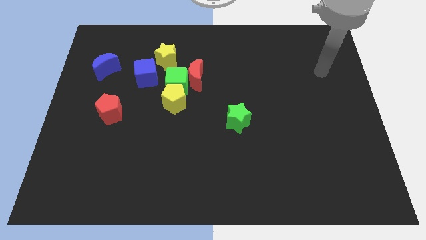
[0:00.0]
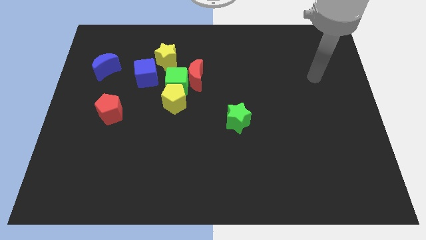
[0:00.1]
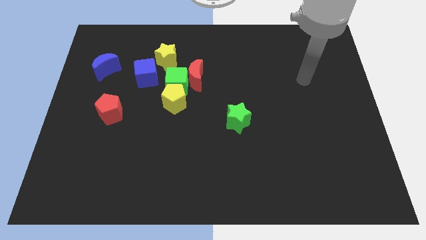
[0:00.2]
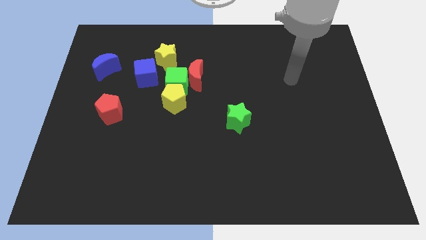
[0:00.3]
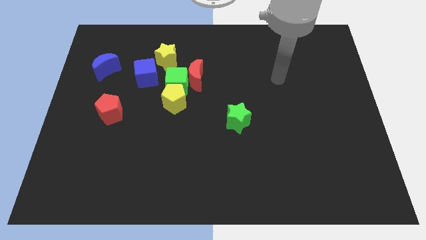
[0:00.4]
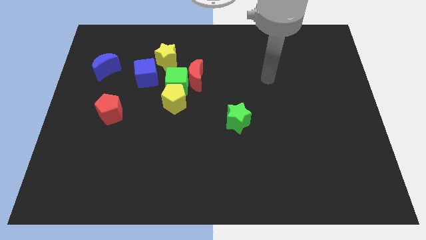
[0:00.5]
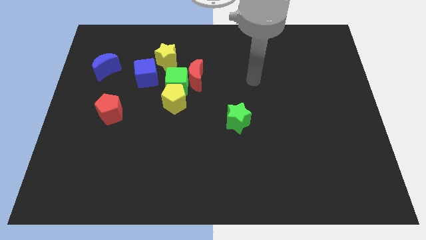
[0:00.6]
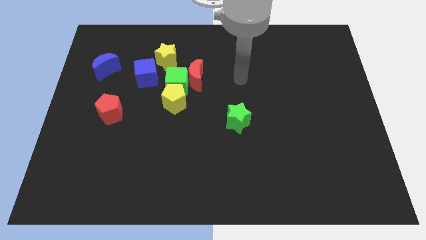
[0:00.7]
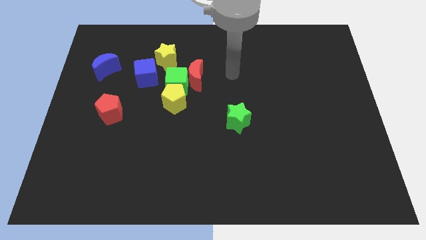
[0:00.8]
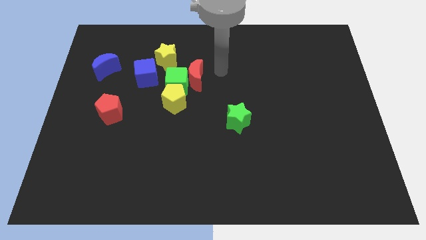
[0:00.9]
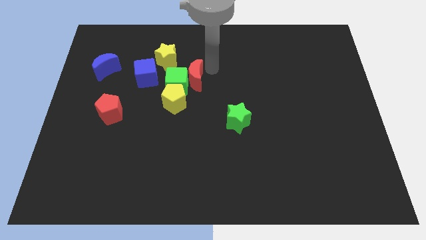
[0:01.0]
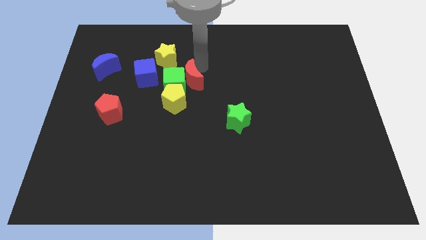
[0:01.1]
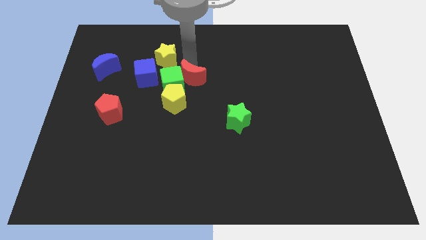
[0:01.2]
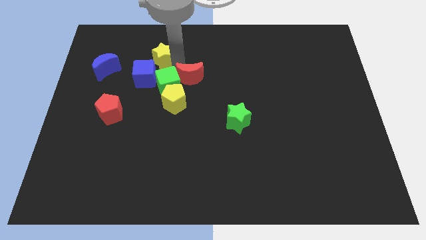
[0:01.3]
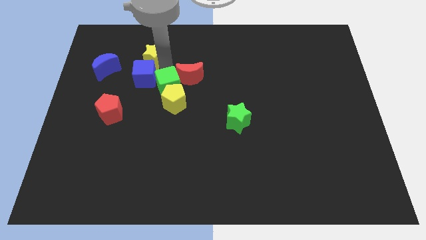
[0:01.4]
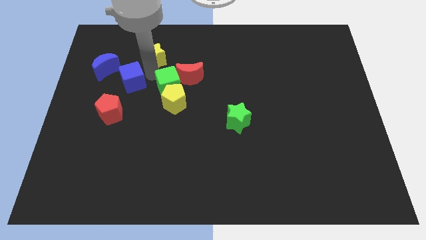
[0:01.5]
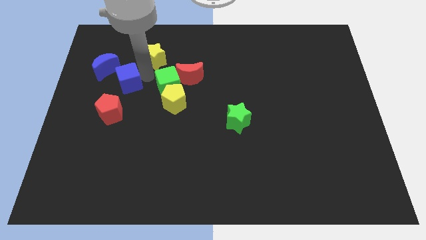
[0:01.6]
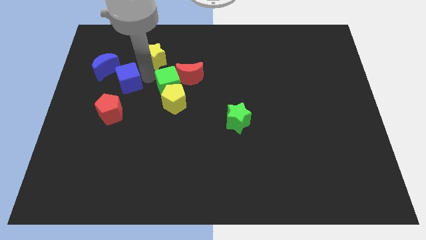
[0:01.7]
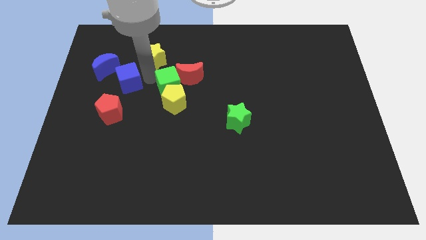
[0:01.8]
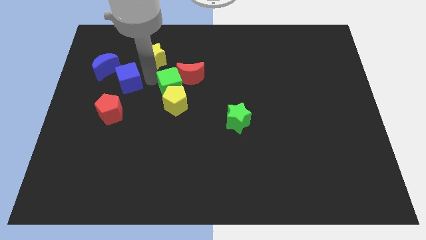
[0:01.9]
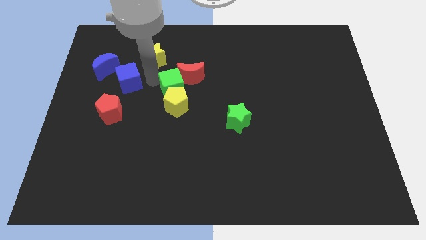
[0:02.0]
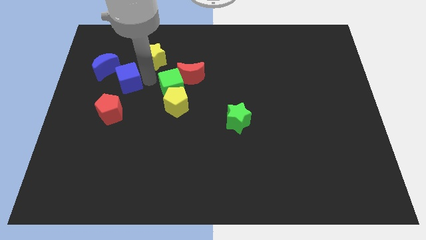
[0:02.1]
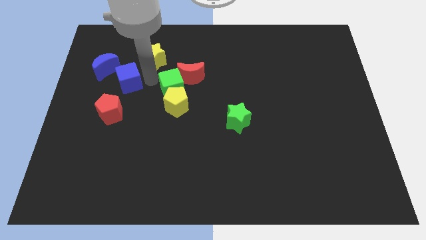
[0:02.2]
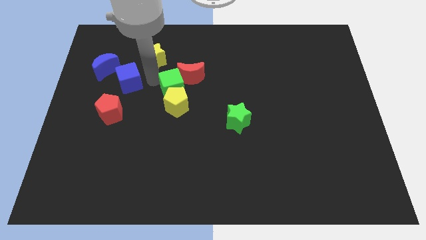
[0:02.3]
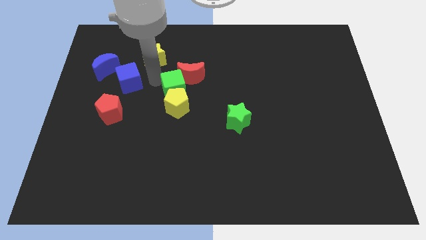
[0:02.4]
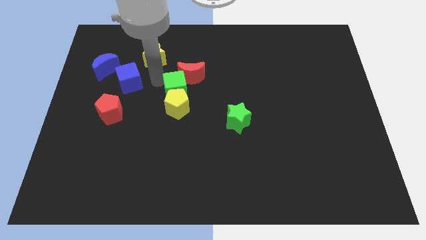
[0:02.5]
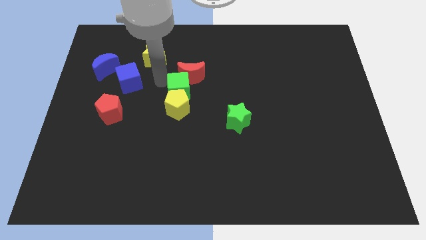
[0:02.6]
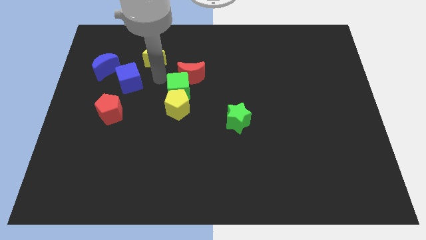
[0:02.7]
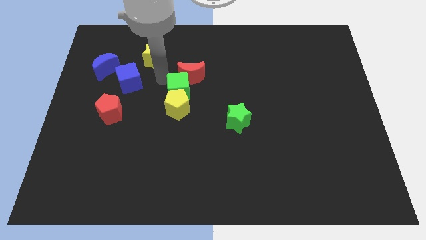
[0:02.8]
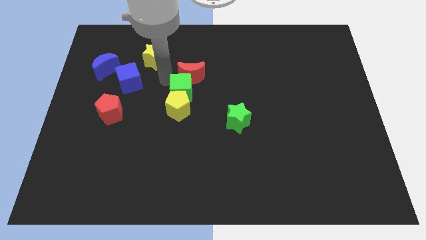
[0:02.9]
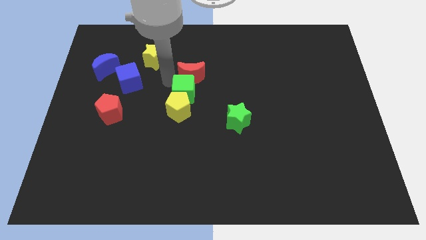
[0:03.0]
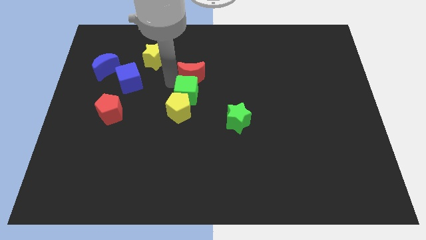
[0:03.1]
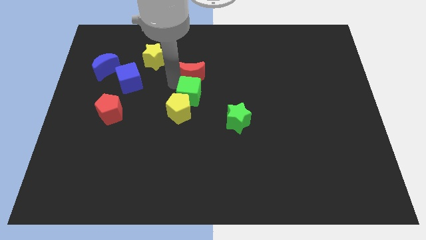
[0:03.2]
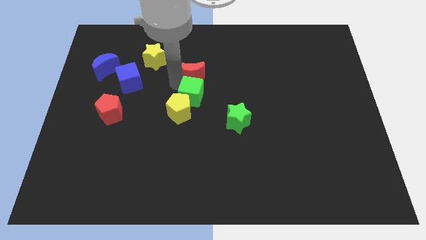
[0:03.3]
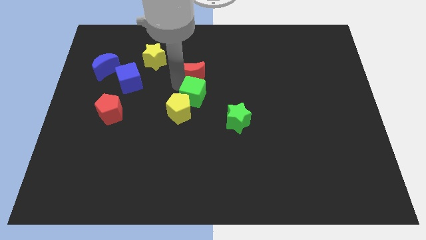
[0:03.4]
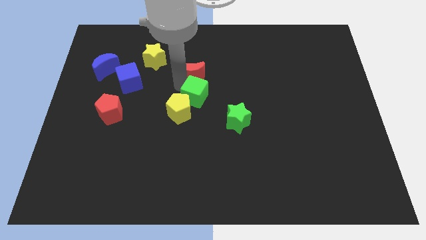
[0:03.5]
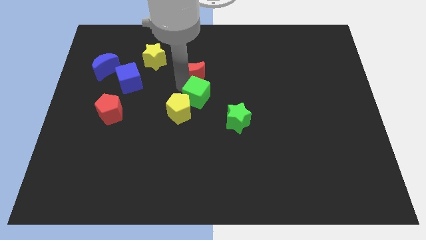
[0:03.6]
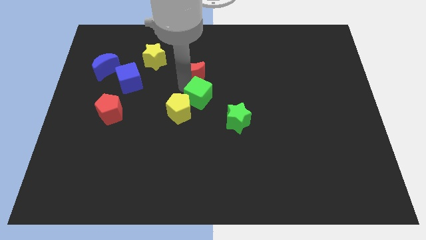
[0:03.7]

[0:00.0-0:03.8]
separate the green cube from the clump

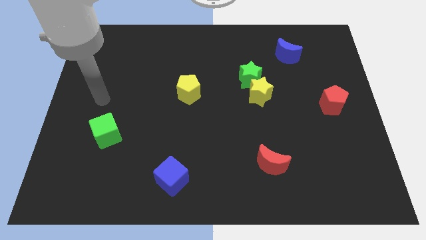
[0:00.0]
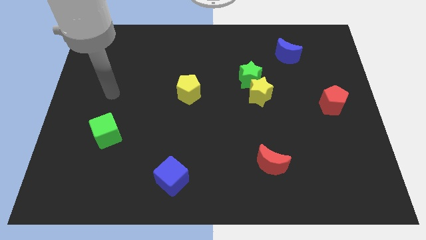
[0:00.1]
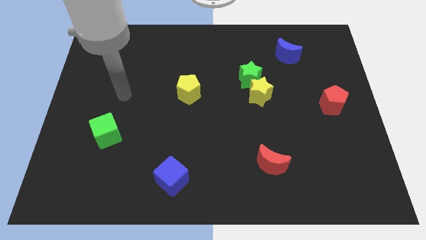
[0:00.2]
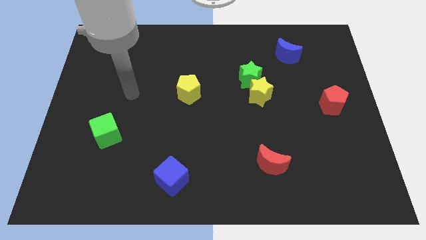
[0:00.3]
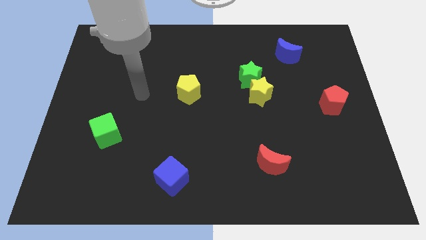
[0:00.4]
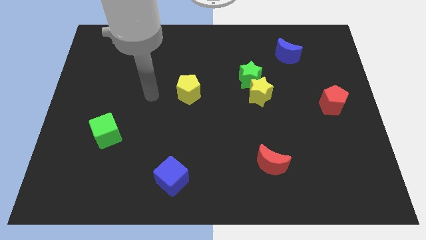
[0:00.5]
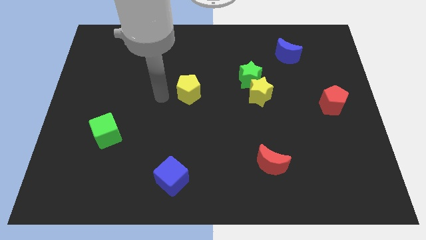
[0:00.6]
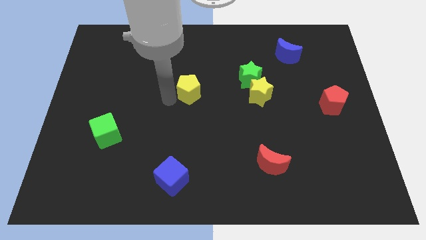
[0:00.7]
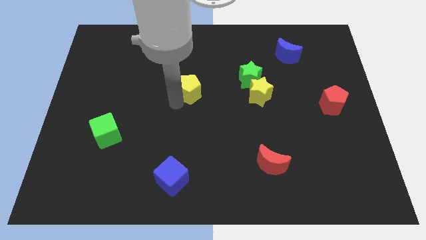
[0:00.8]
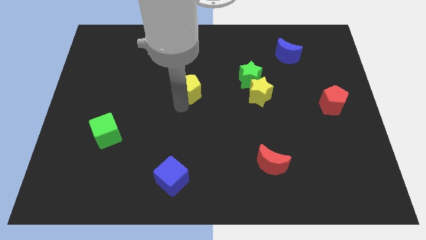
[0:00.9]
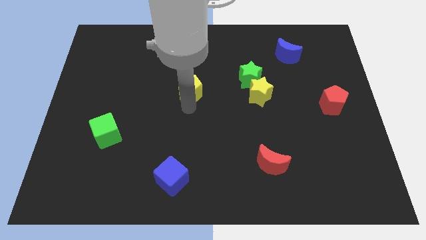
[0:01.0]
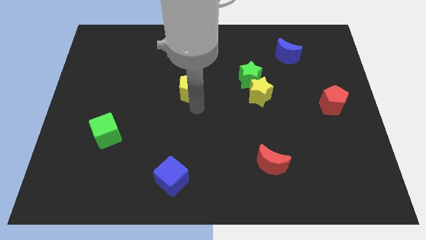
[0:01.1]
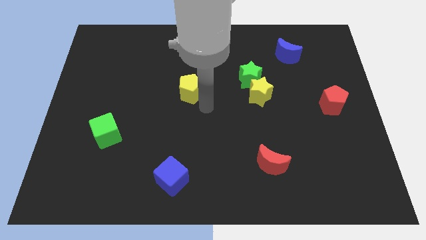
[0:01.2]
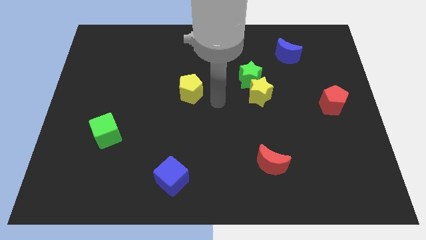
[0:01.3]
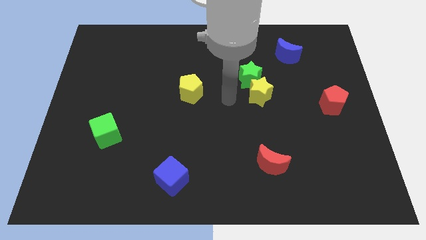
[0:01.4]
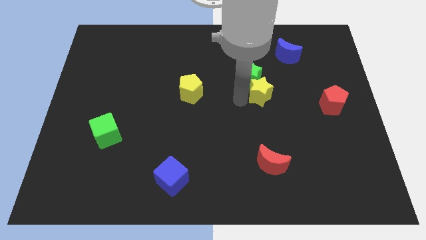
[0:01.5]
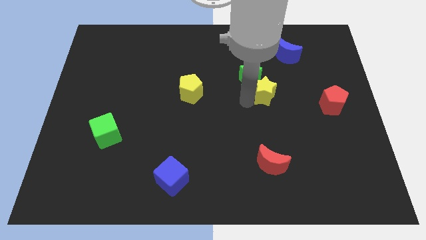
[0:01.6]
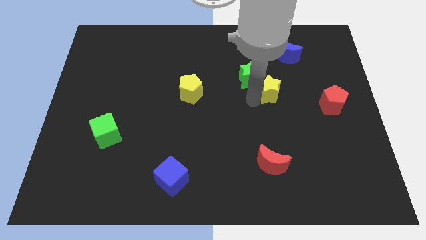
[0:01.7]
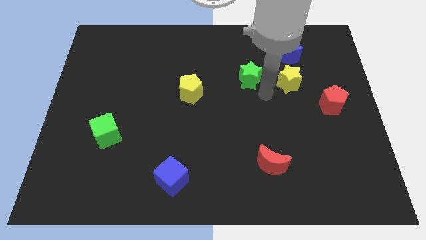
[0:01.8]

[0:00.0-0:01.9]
pull the green star apart from the yellow star

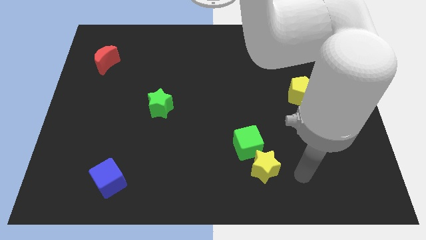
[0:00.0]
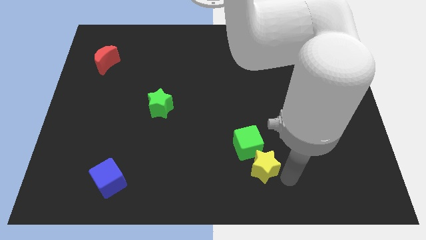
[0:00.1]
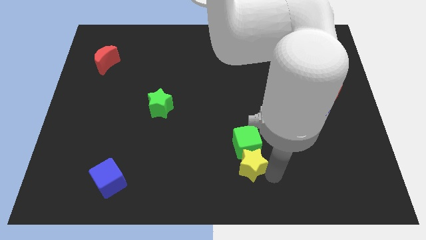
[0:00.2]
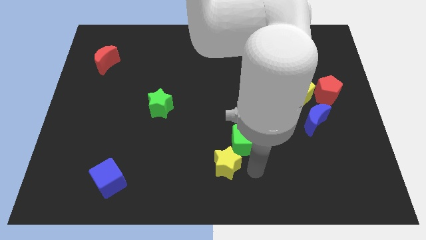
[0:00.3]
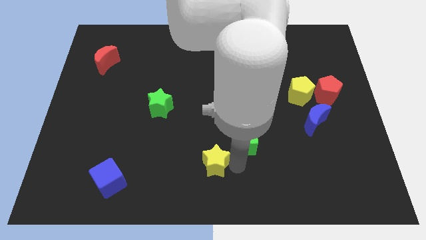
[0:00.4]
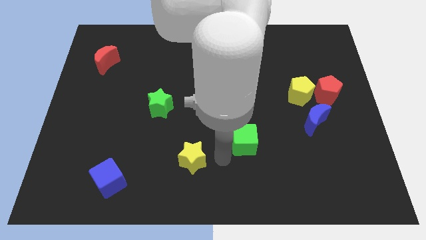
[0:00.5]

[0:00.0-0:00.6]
pull the green cube apart from the yellow star

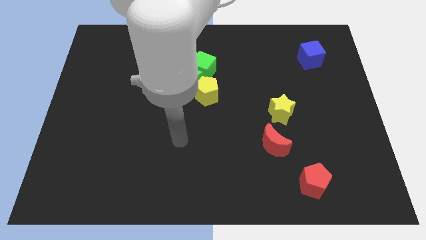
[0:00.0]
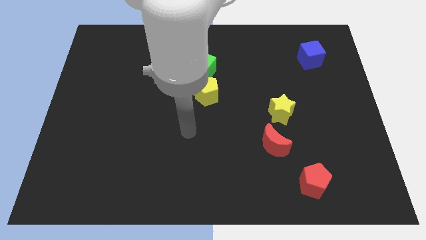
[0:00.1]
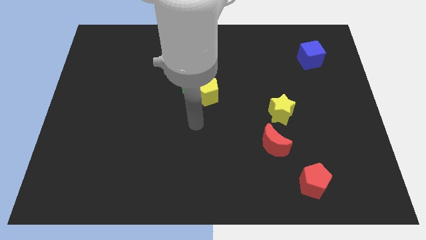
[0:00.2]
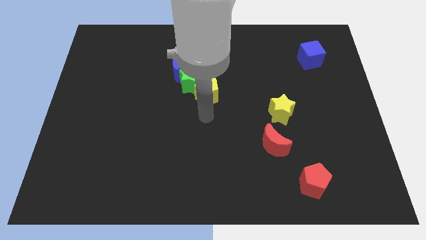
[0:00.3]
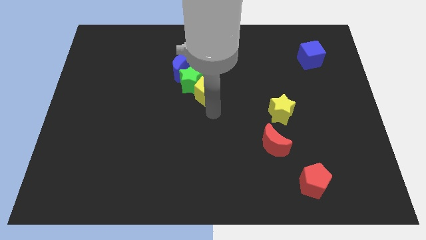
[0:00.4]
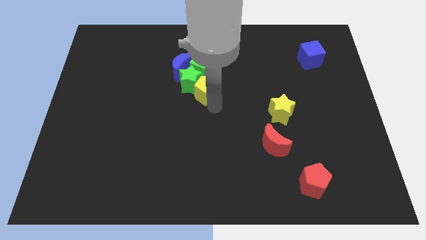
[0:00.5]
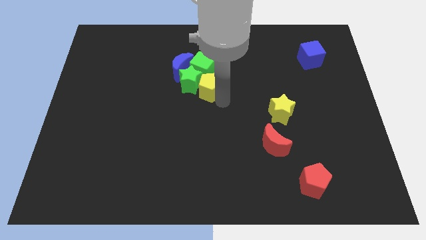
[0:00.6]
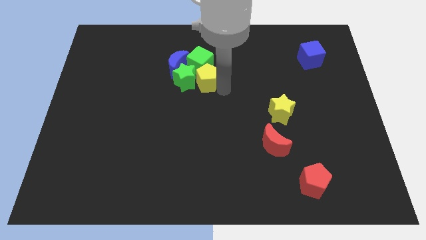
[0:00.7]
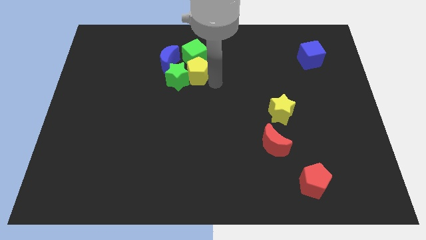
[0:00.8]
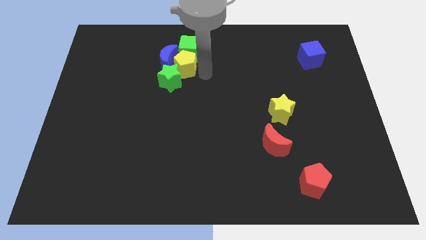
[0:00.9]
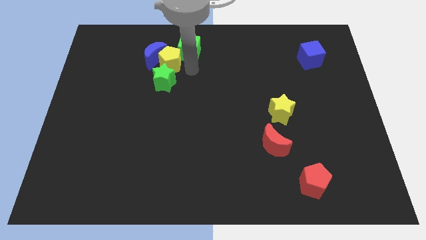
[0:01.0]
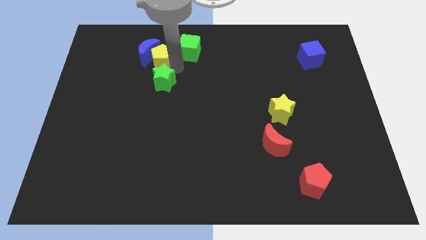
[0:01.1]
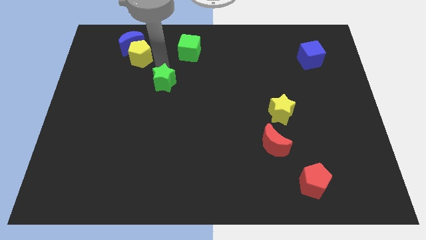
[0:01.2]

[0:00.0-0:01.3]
pull the green star apart from the group of blocks

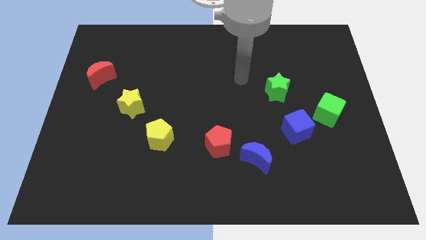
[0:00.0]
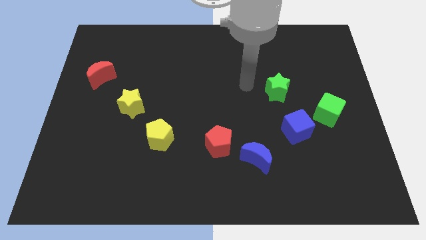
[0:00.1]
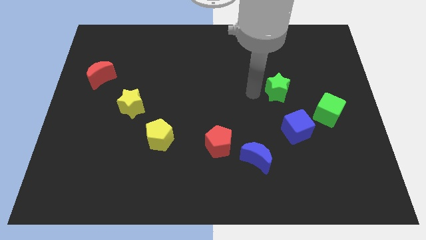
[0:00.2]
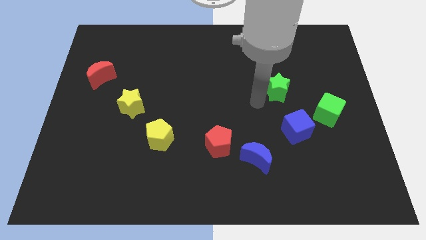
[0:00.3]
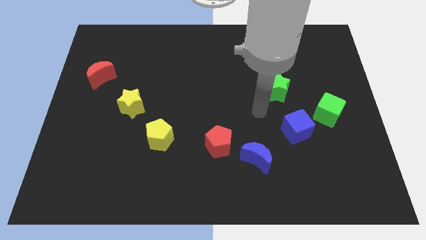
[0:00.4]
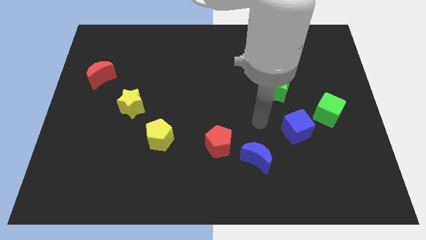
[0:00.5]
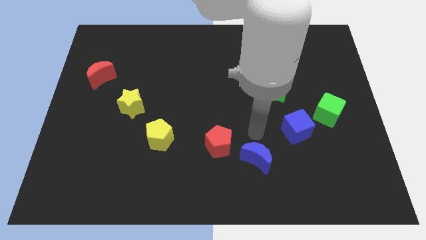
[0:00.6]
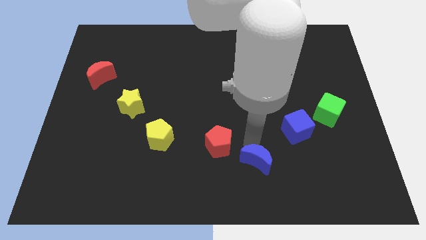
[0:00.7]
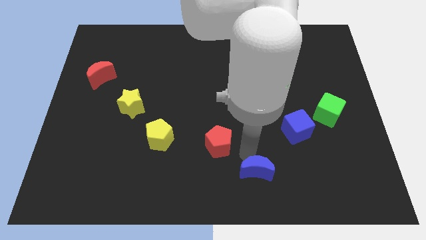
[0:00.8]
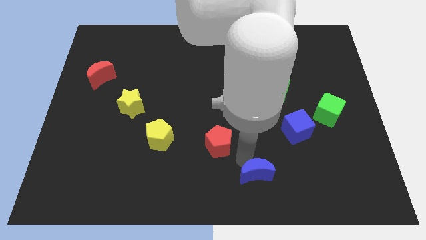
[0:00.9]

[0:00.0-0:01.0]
pull the red pentagon apart from the blue moon

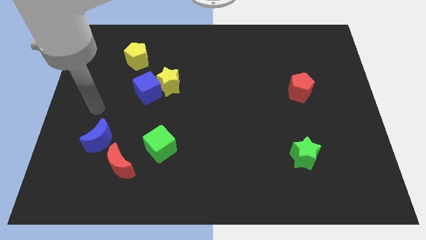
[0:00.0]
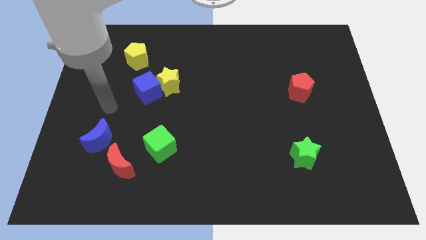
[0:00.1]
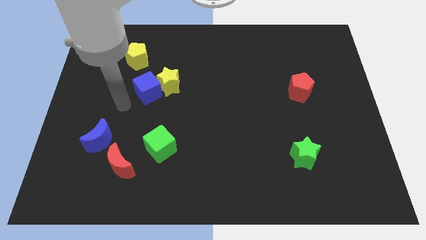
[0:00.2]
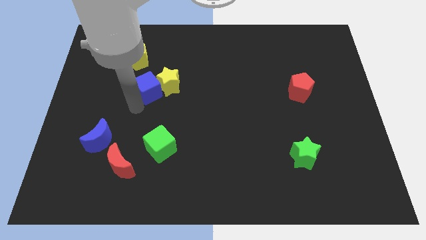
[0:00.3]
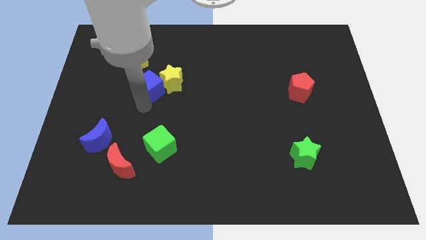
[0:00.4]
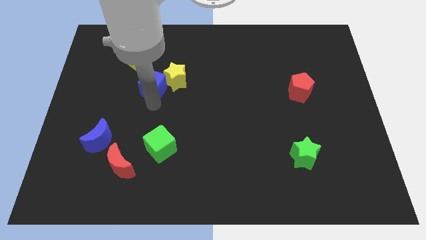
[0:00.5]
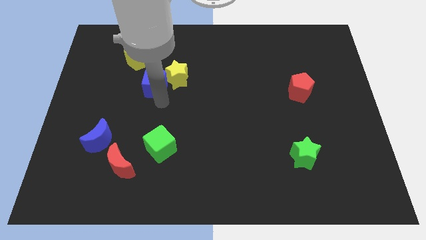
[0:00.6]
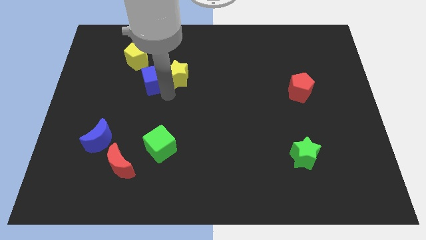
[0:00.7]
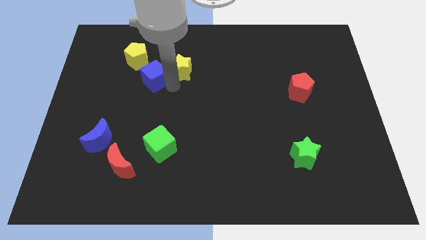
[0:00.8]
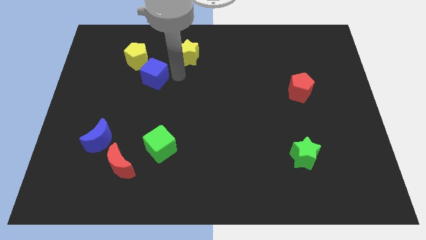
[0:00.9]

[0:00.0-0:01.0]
pull the blue cube apart from the yellow star
